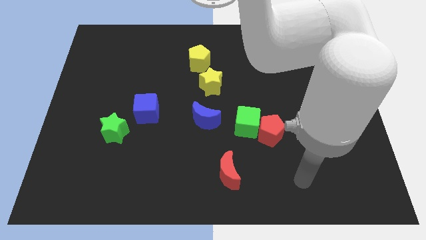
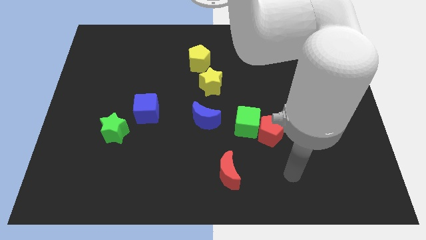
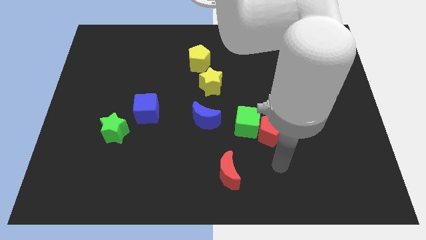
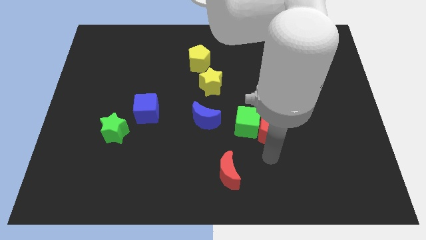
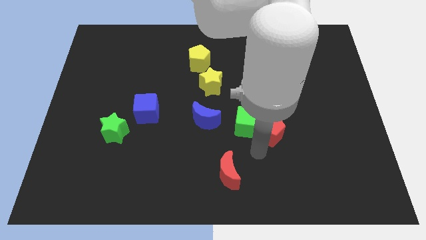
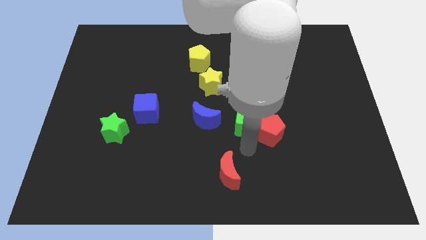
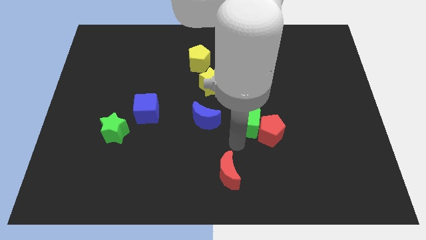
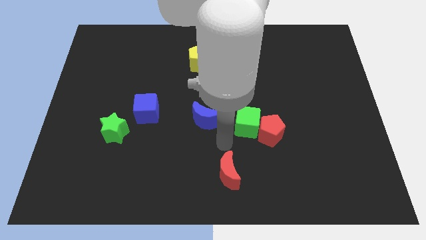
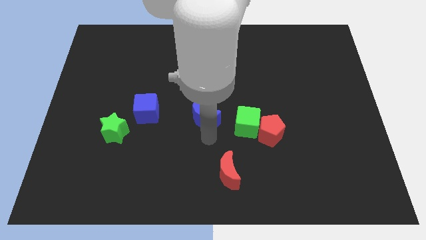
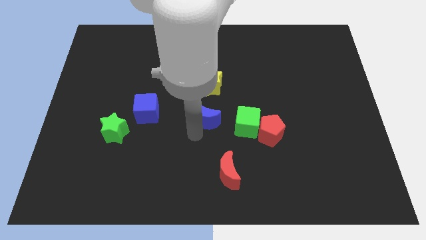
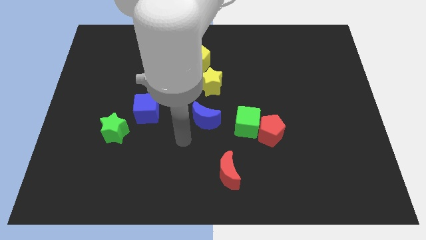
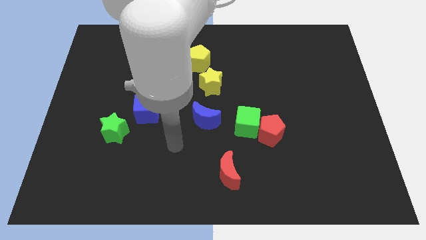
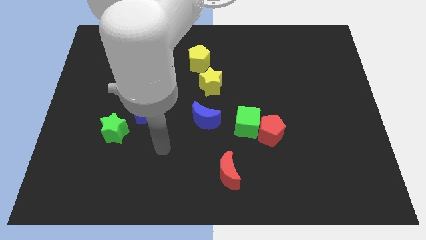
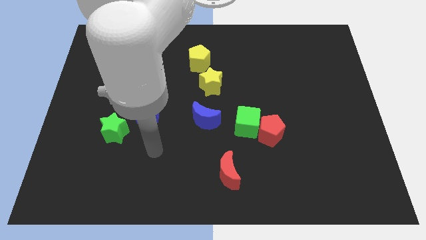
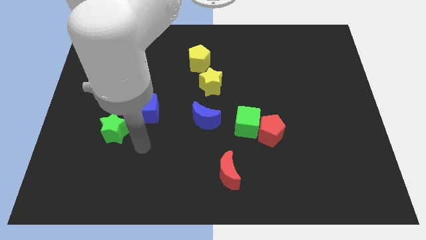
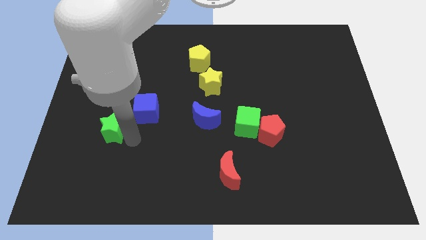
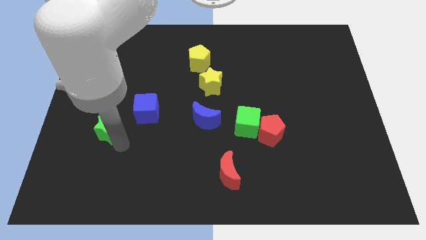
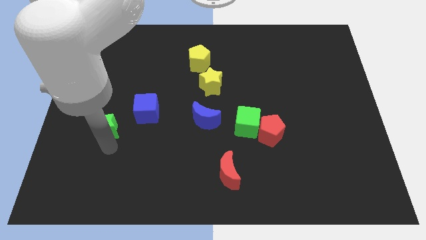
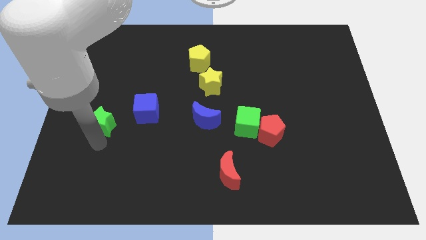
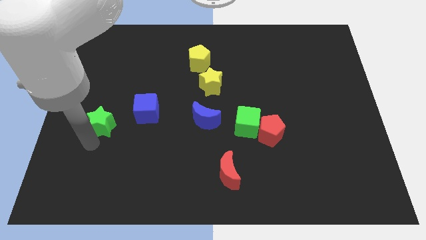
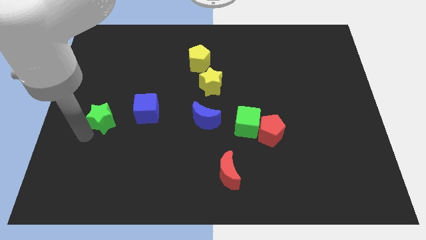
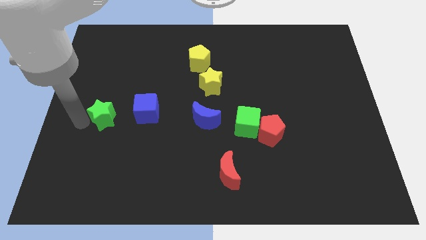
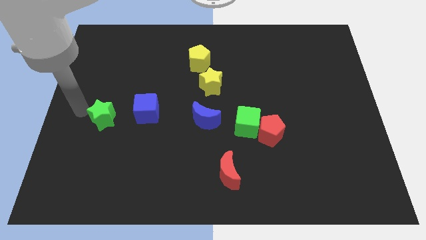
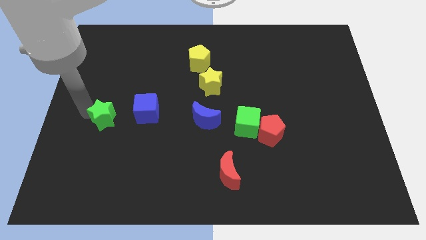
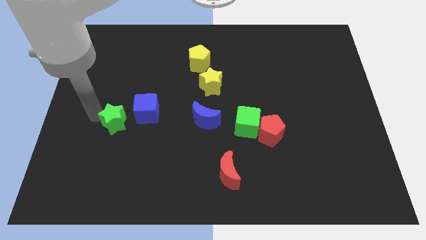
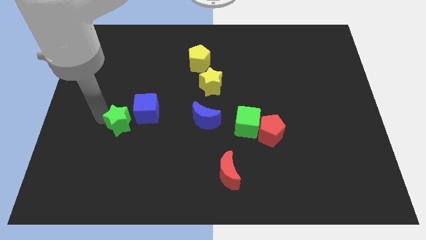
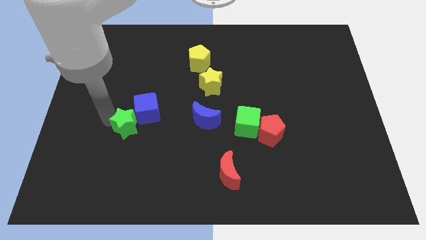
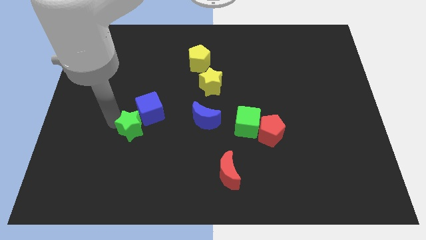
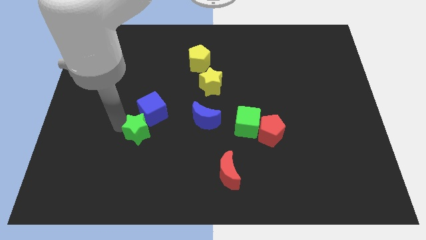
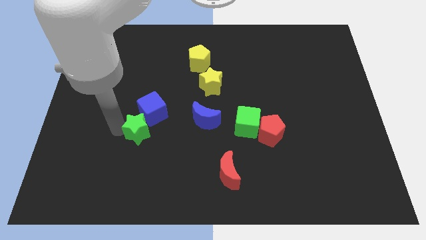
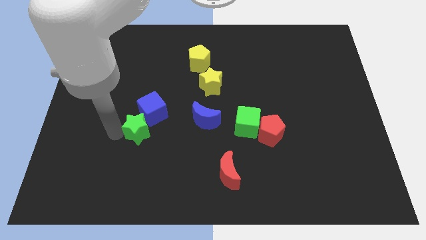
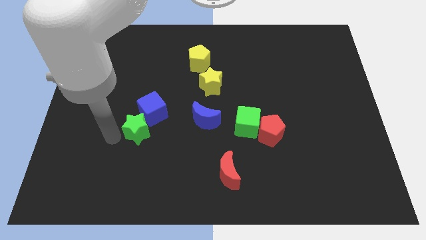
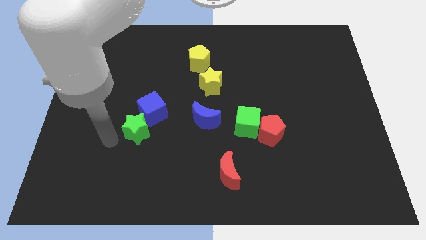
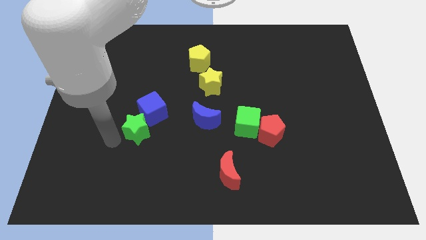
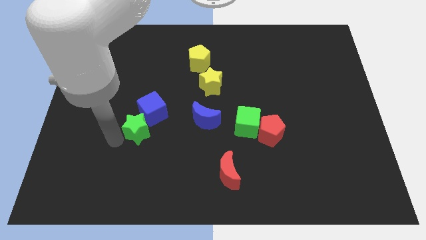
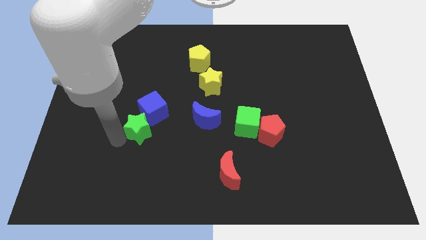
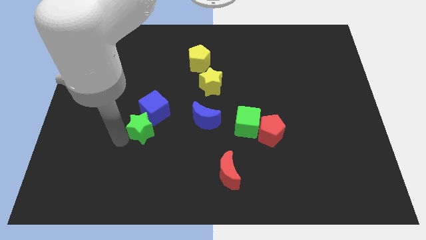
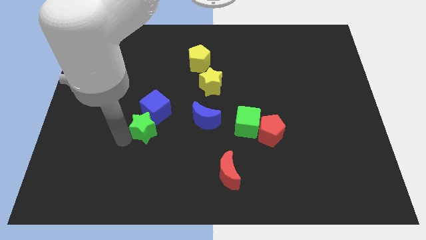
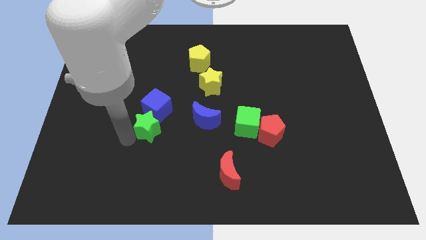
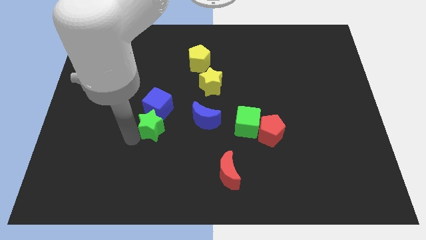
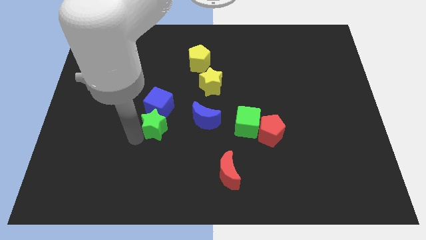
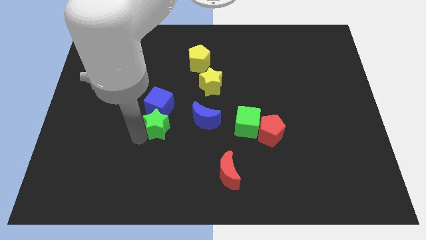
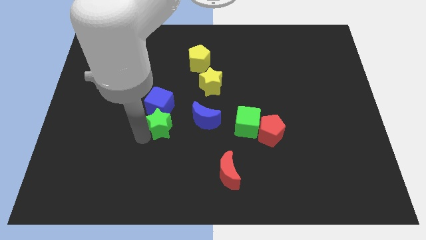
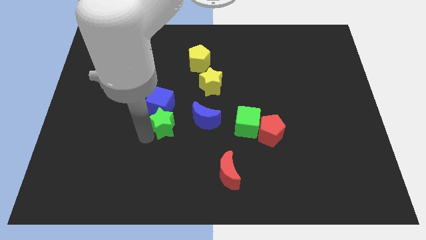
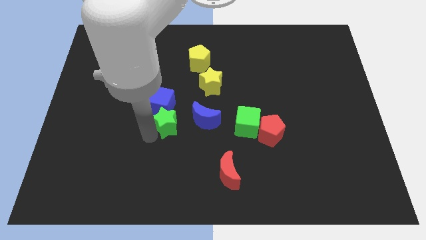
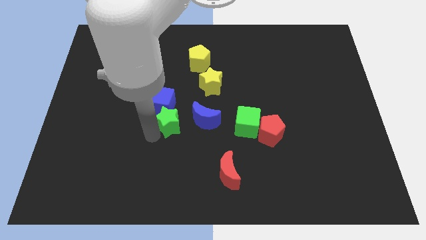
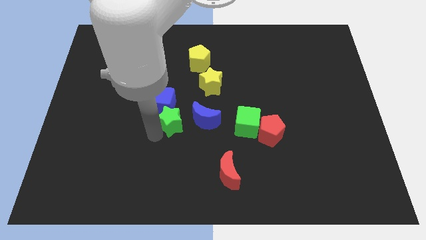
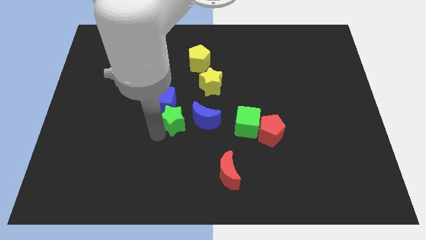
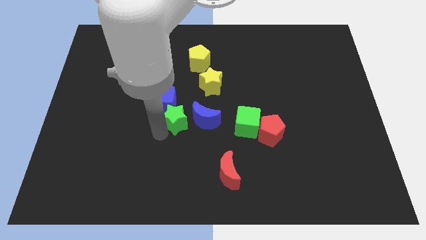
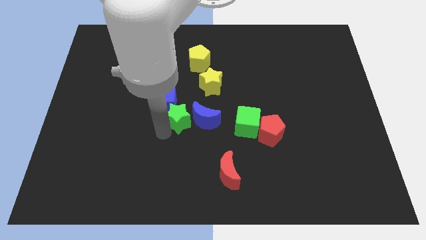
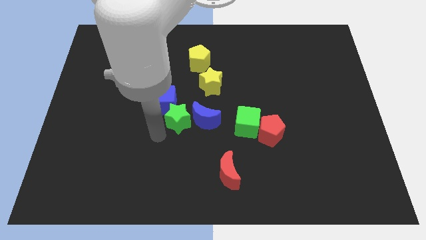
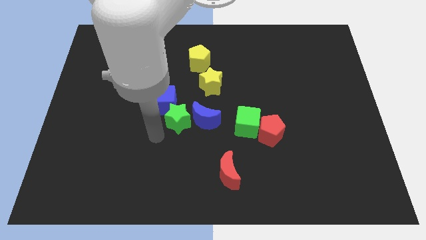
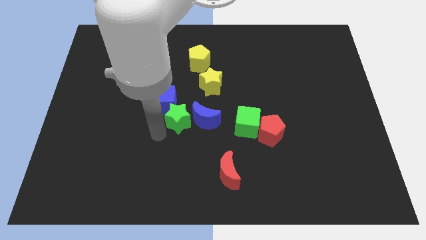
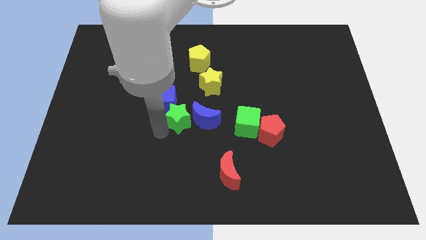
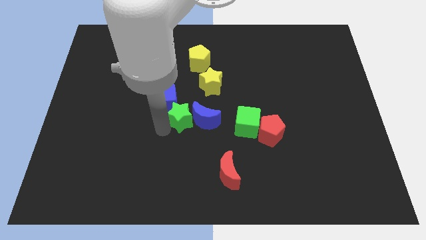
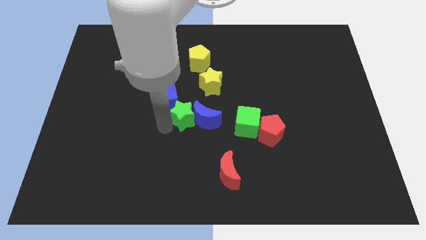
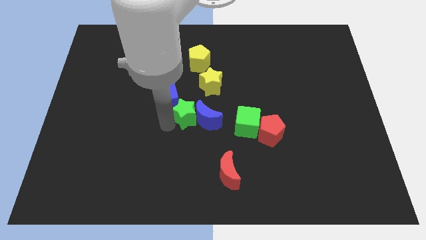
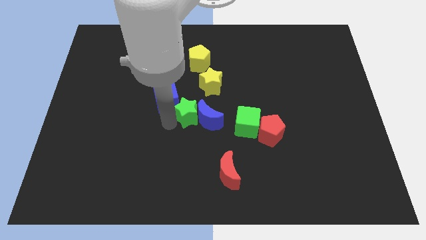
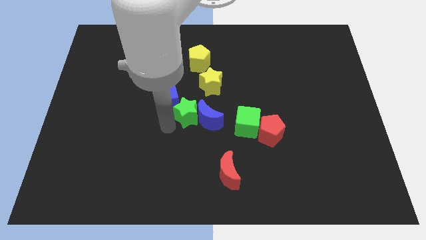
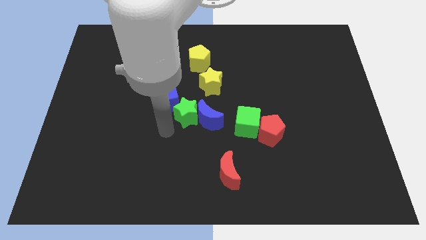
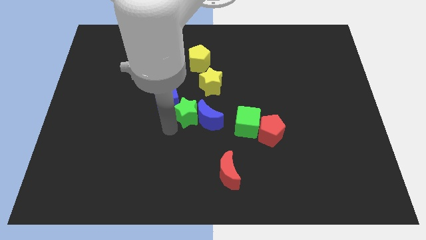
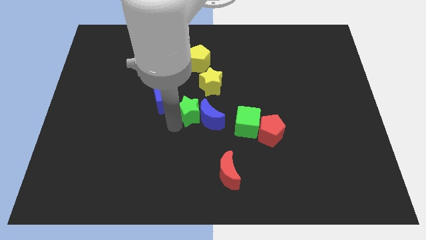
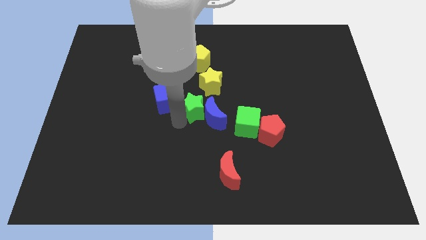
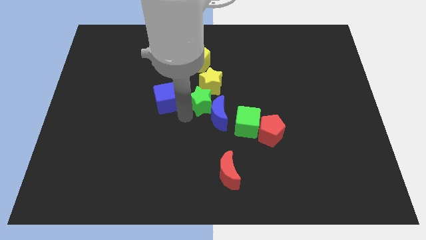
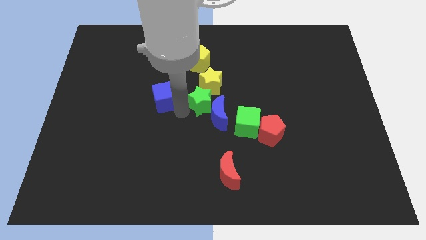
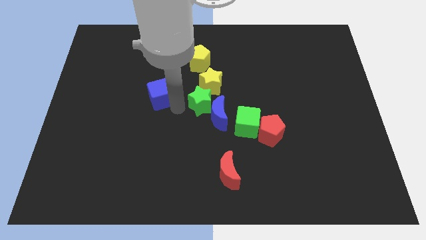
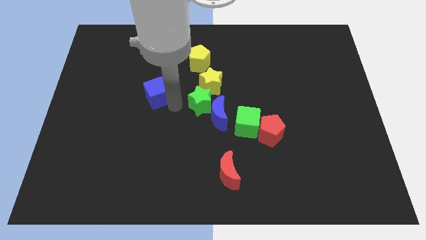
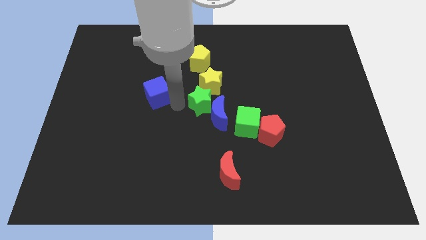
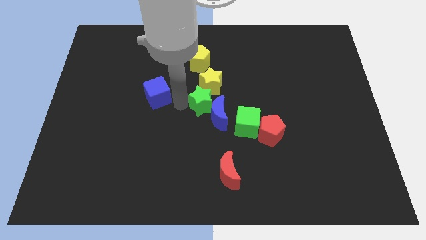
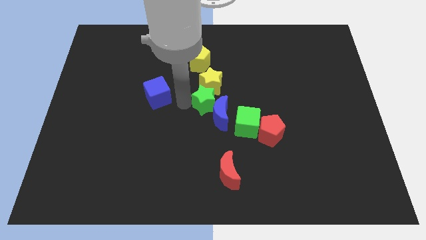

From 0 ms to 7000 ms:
put the green star to the bottom right side of the yellow star

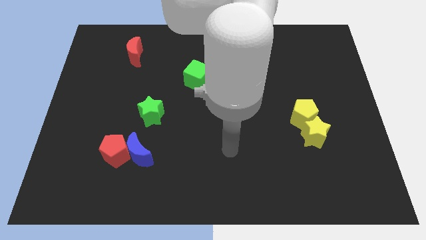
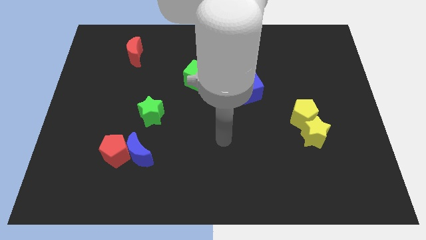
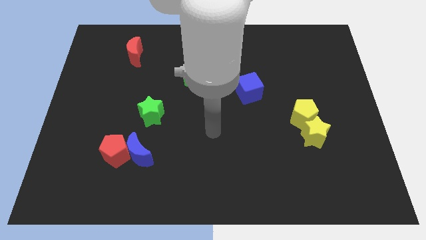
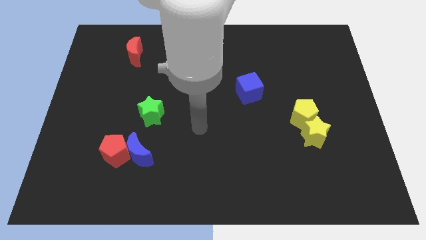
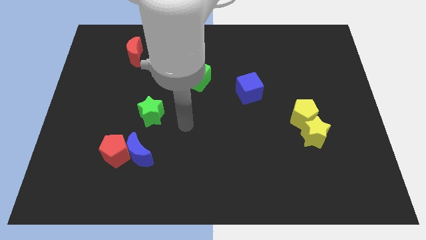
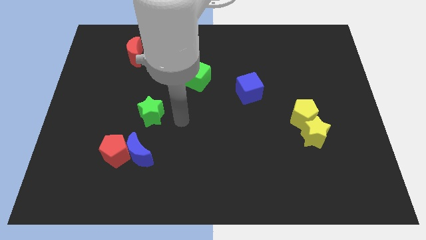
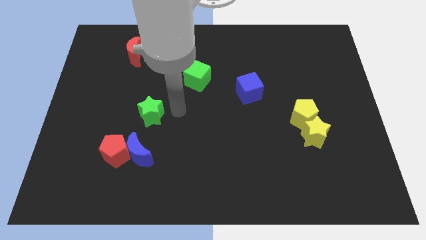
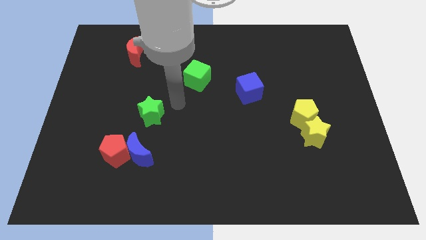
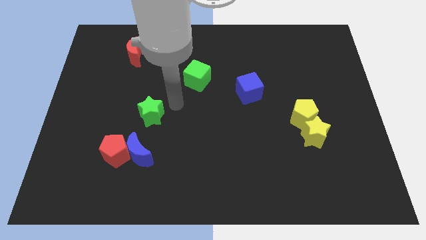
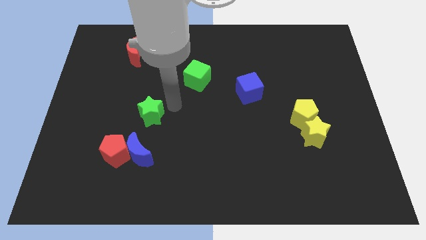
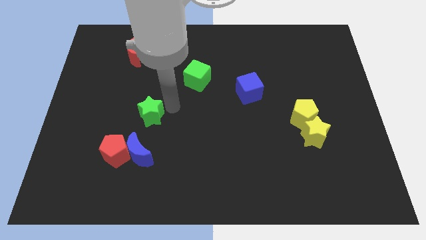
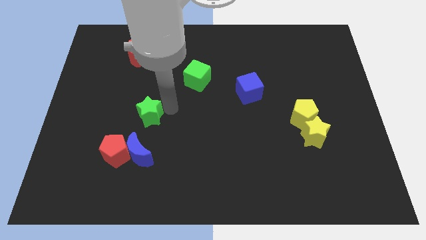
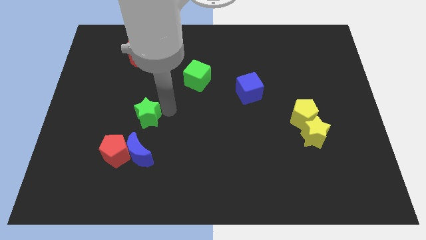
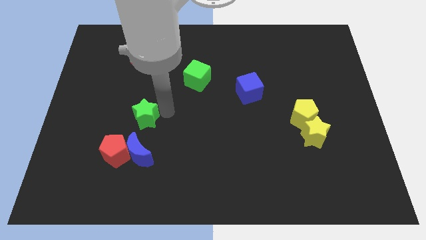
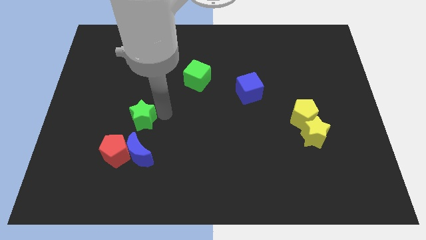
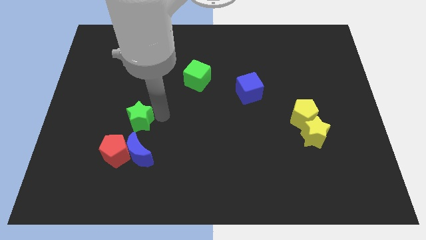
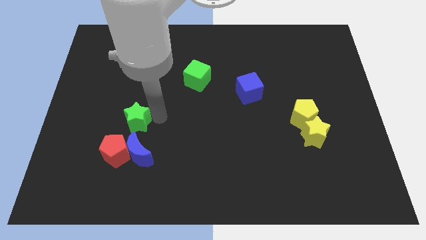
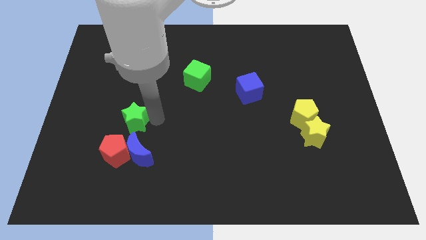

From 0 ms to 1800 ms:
put the green star to the top left of the blue moon
